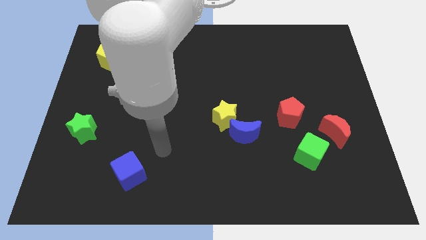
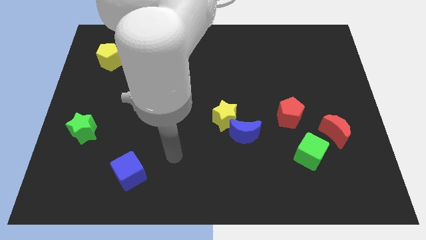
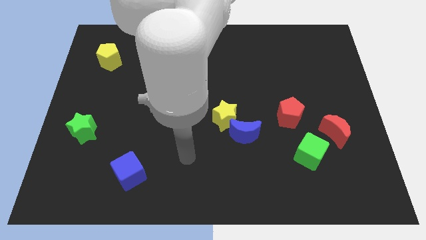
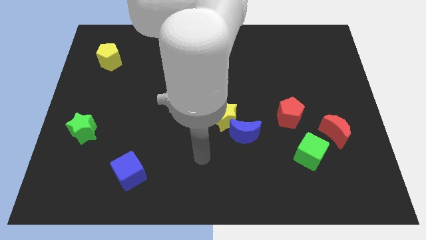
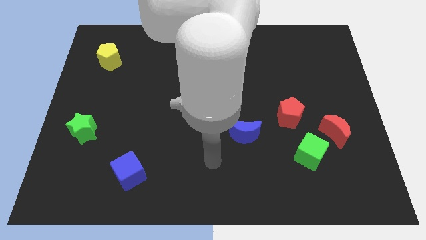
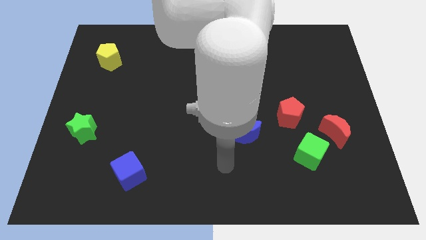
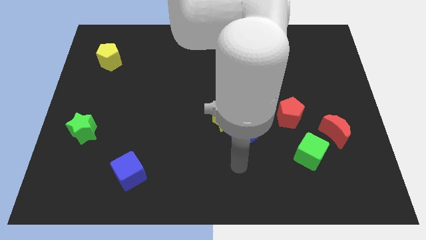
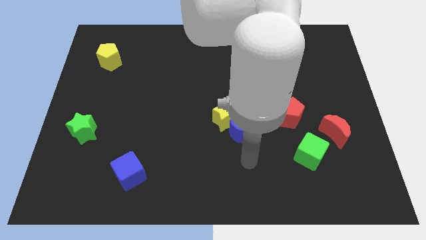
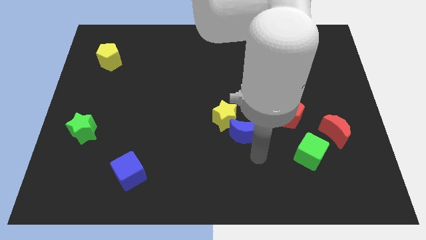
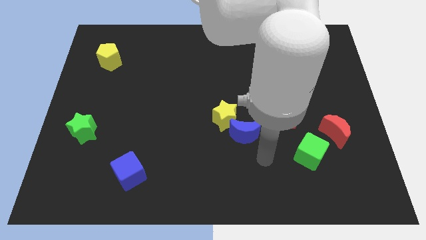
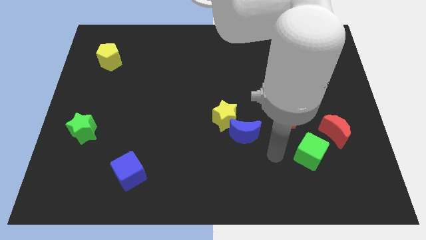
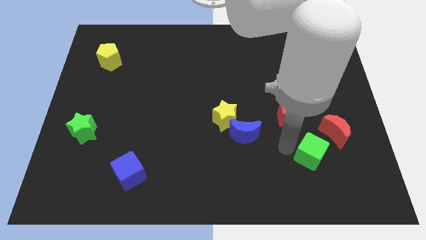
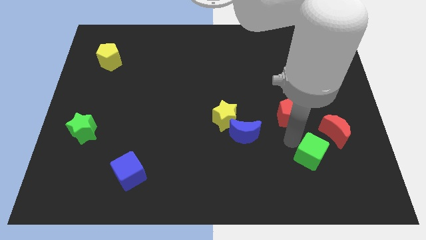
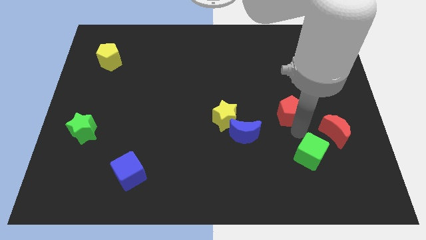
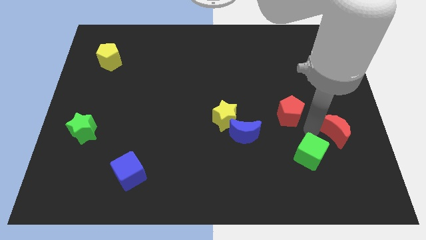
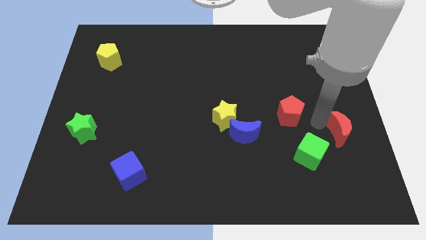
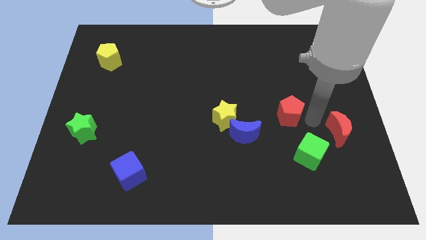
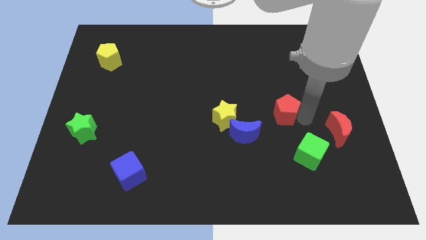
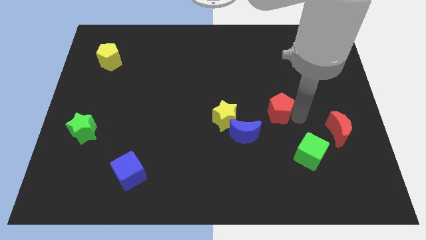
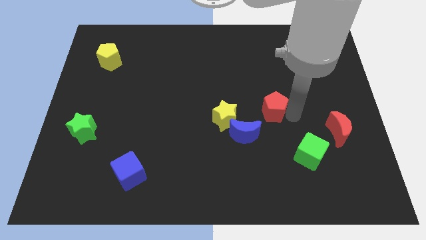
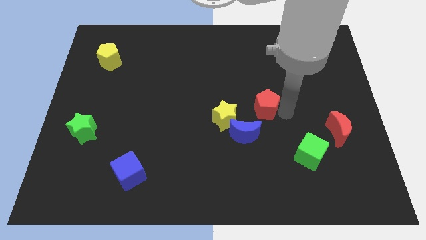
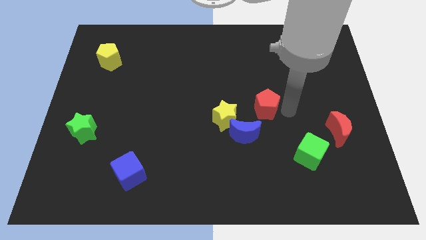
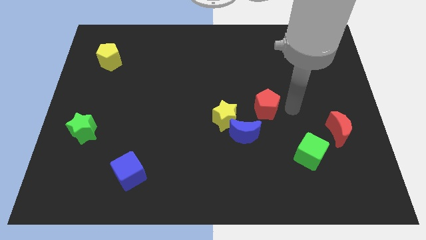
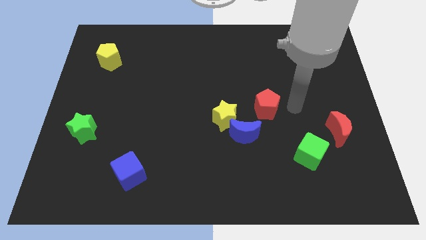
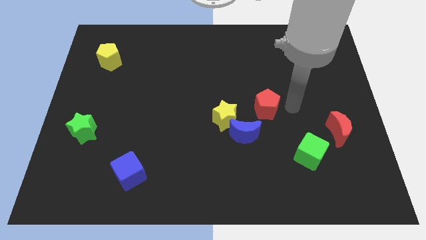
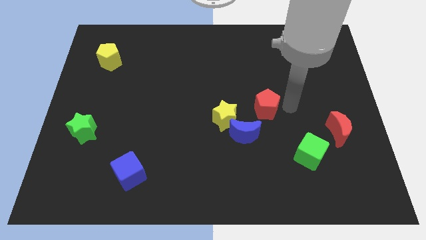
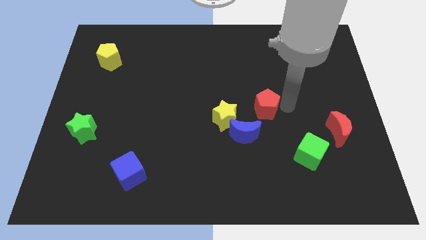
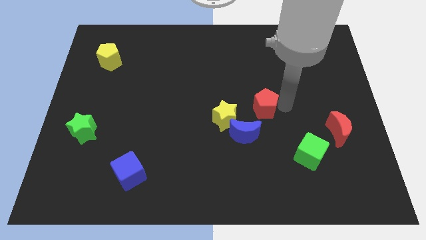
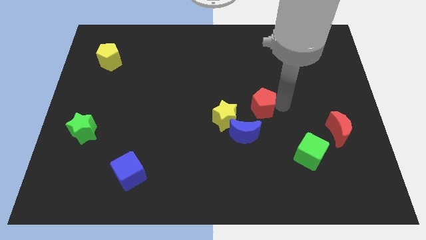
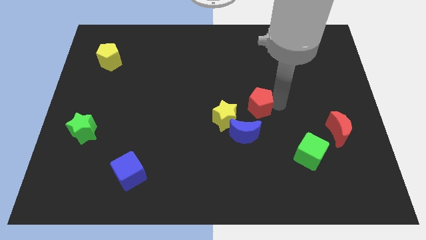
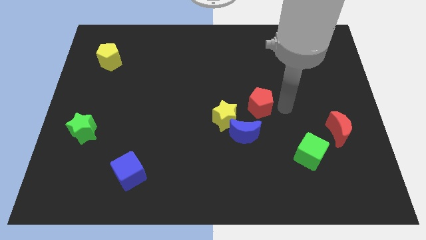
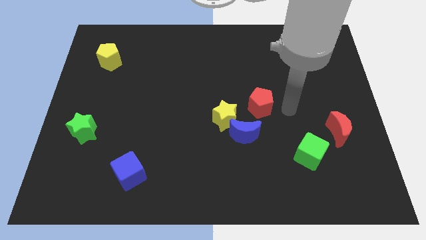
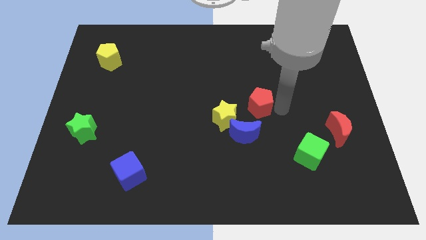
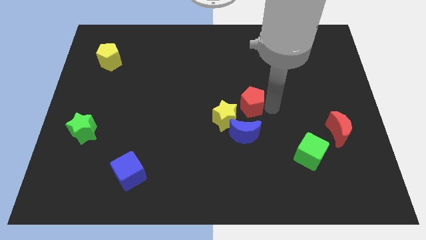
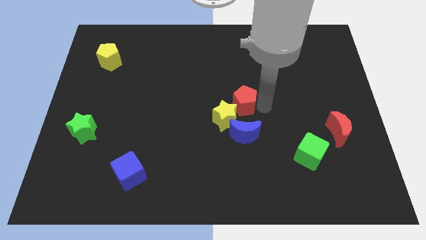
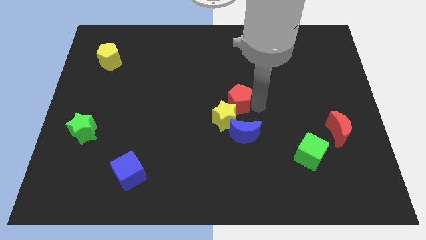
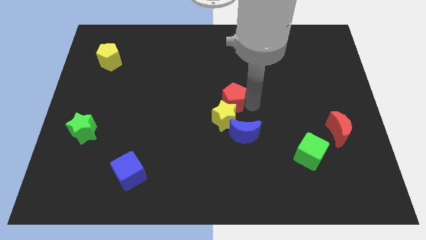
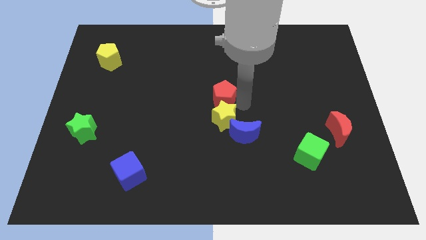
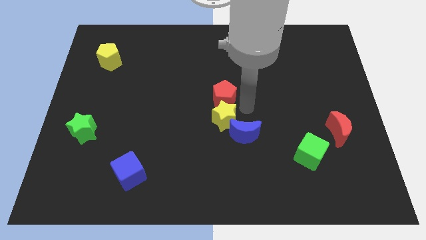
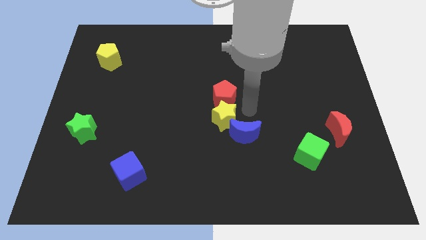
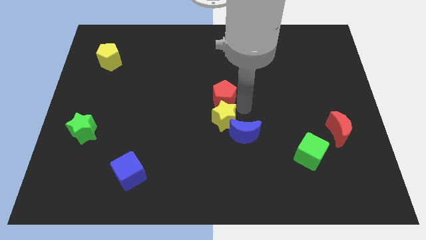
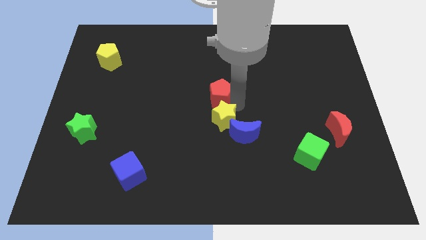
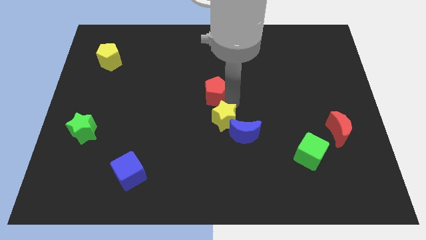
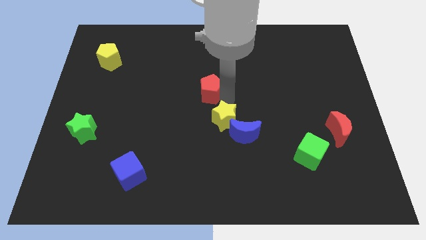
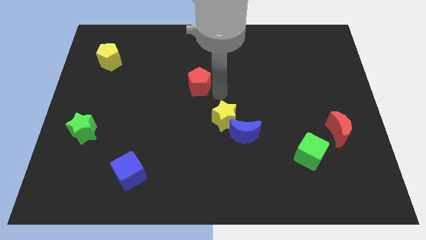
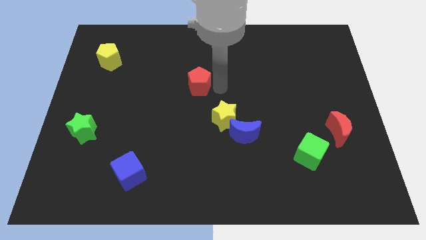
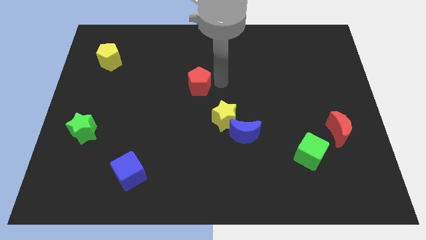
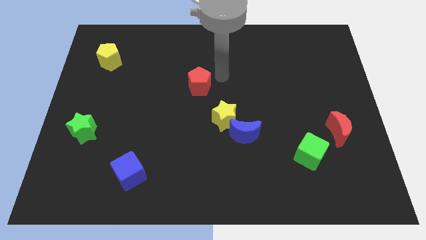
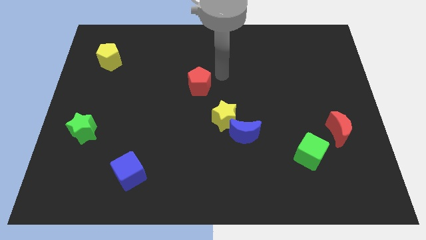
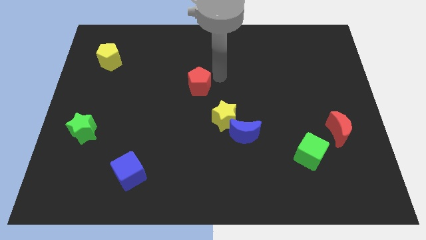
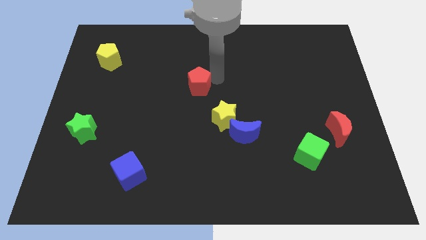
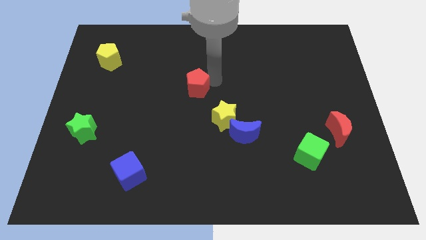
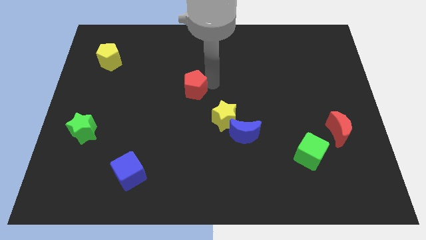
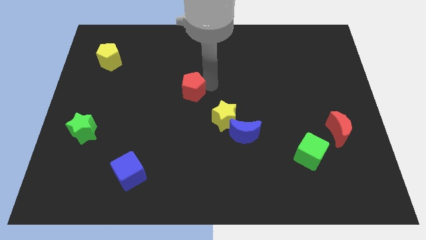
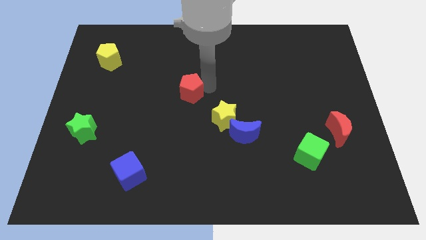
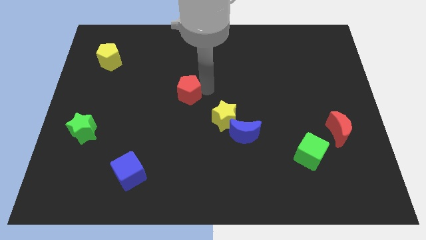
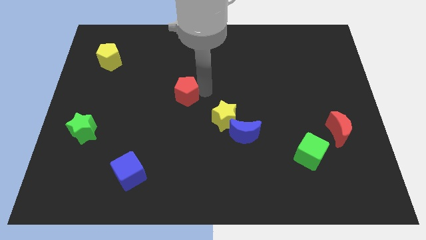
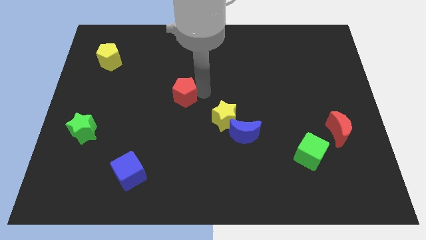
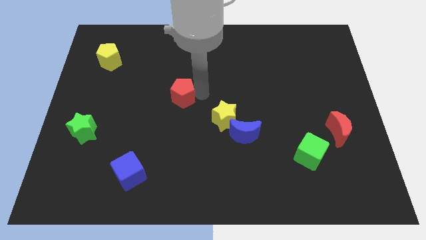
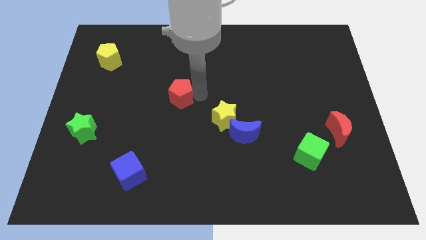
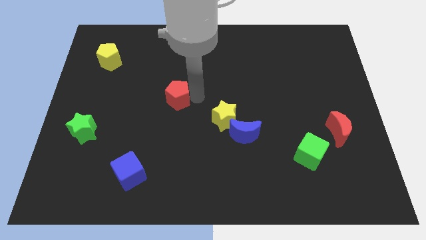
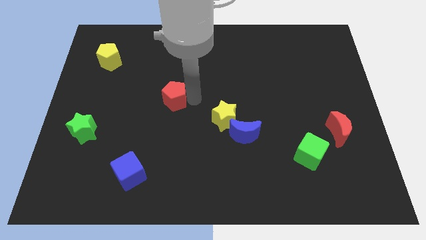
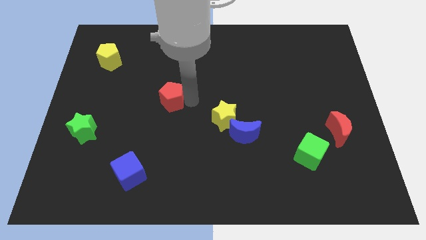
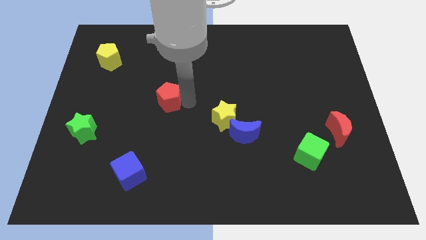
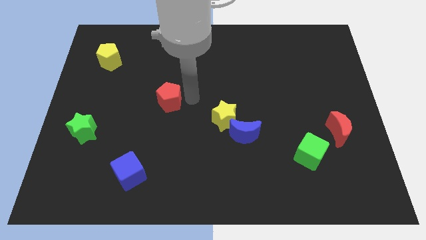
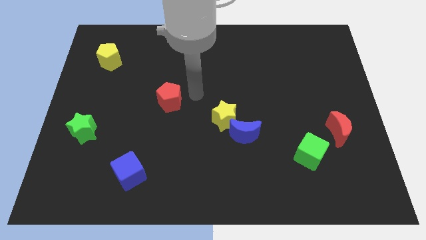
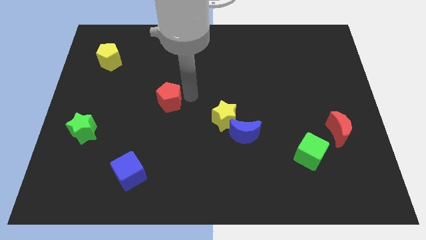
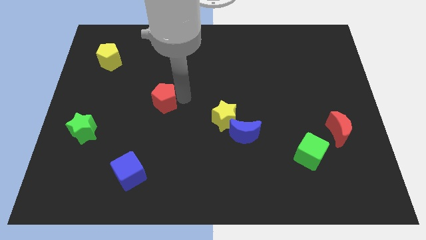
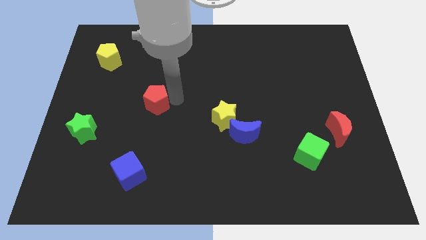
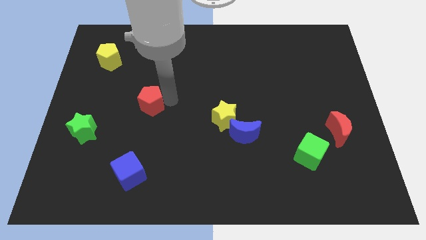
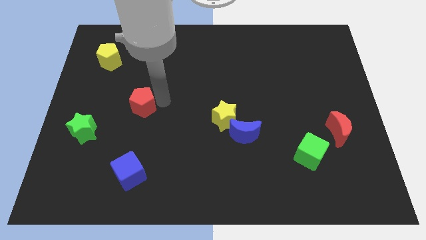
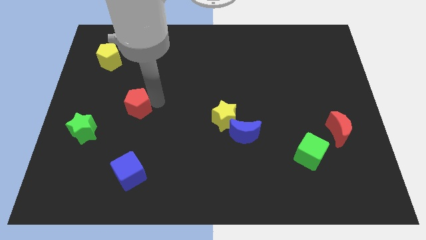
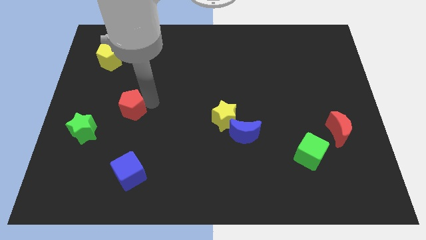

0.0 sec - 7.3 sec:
put the red pentagon to the top right of the green star
